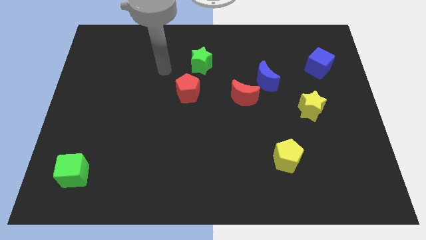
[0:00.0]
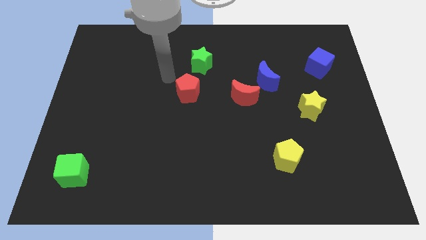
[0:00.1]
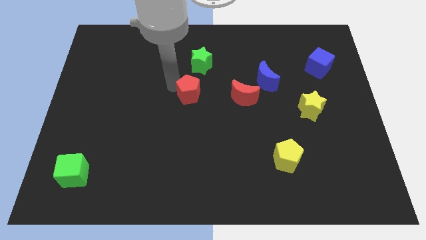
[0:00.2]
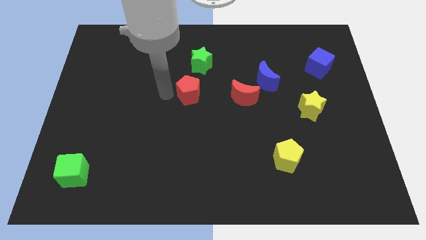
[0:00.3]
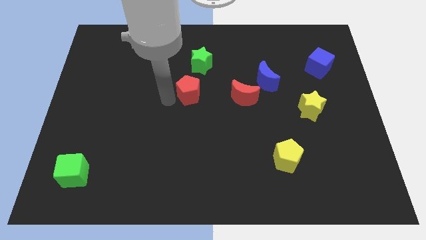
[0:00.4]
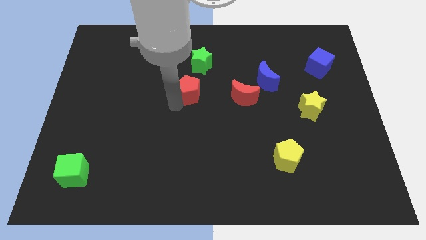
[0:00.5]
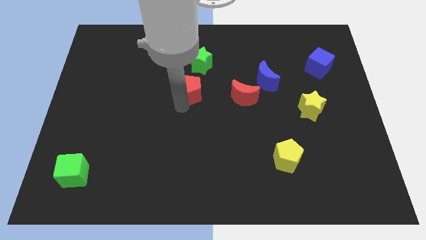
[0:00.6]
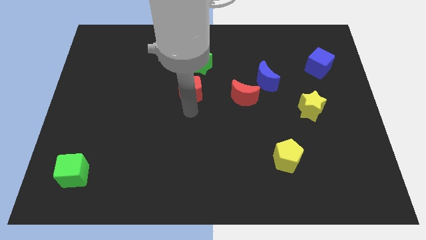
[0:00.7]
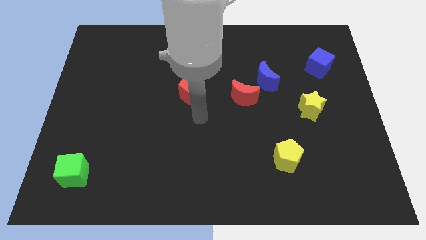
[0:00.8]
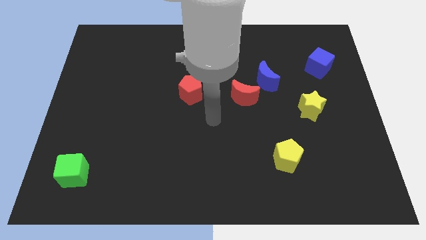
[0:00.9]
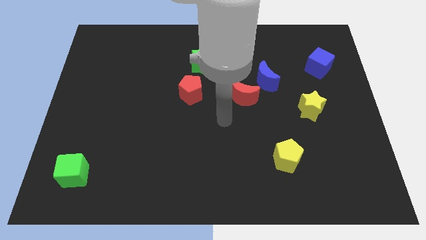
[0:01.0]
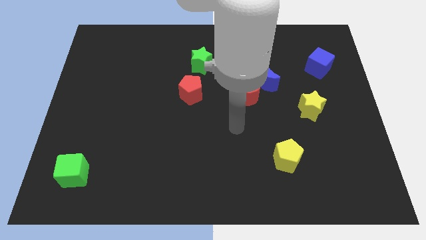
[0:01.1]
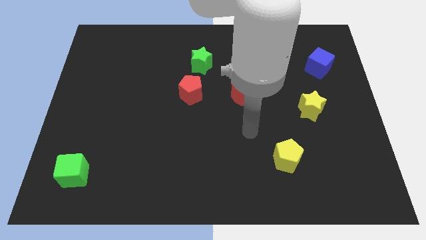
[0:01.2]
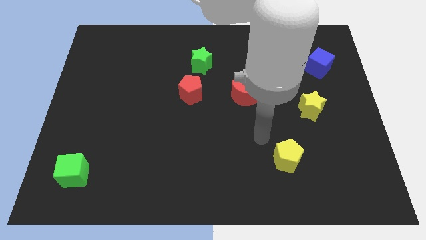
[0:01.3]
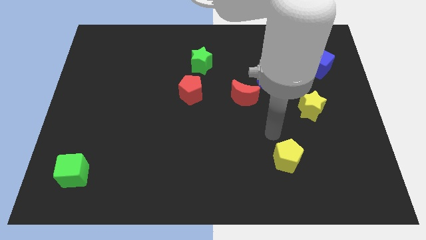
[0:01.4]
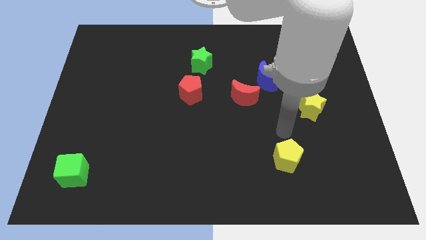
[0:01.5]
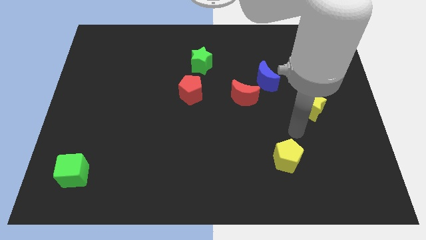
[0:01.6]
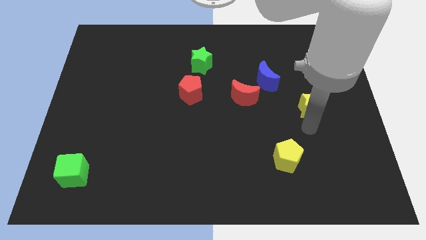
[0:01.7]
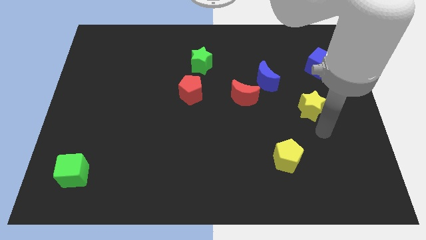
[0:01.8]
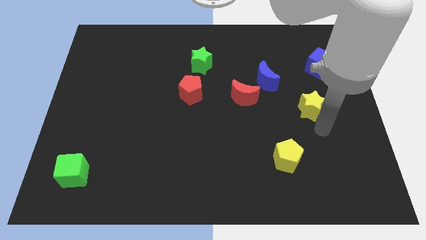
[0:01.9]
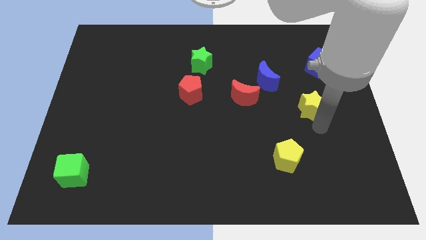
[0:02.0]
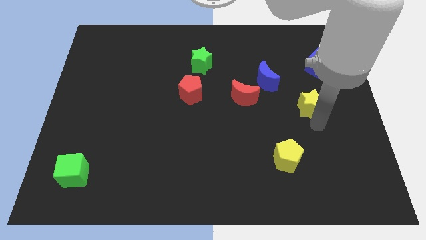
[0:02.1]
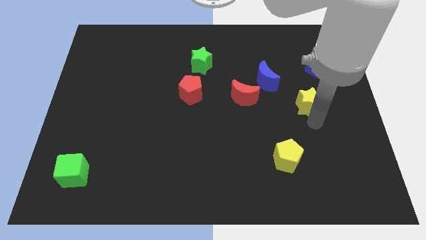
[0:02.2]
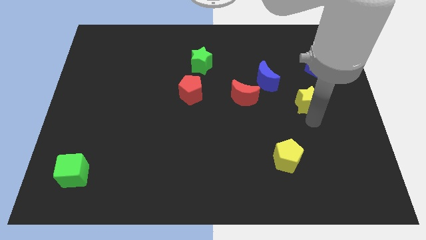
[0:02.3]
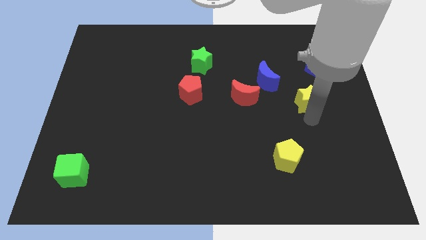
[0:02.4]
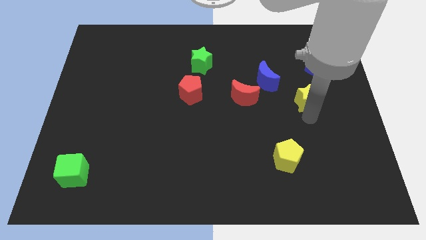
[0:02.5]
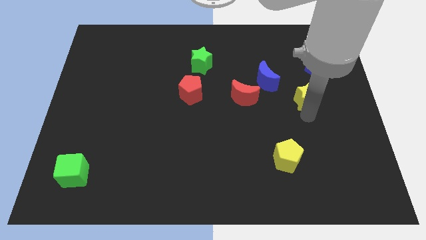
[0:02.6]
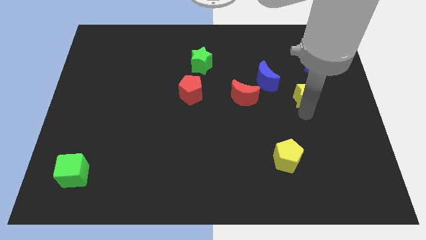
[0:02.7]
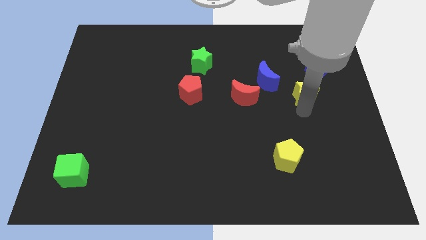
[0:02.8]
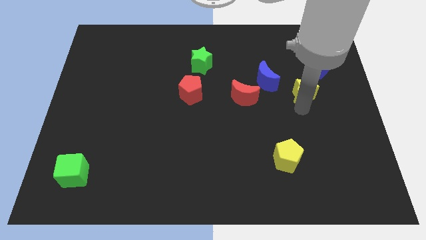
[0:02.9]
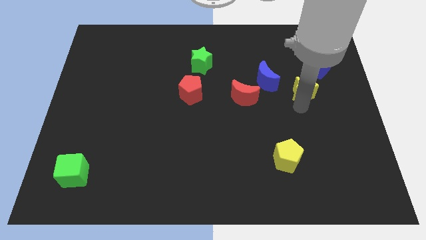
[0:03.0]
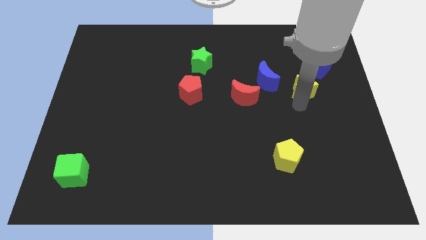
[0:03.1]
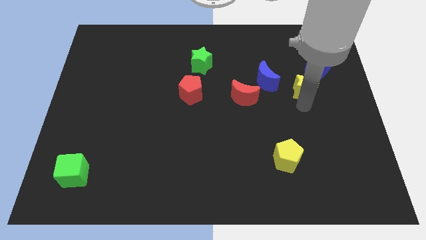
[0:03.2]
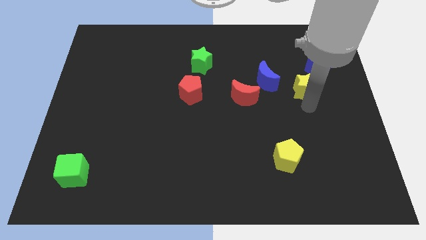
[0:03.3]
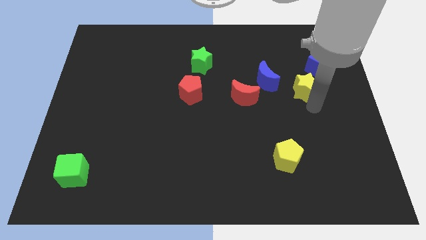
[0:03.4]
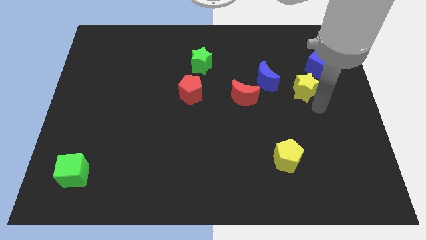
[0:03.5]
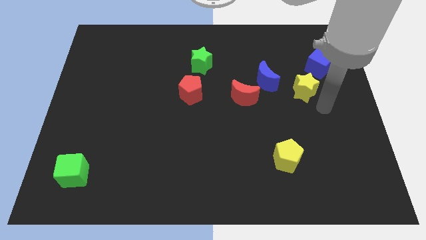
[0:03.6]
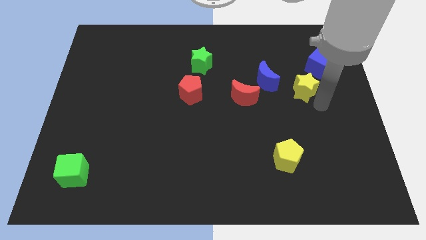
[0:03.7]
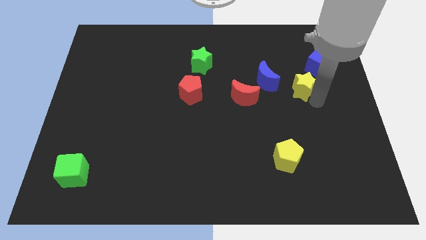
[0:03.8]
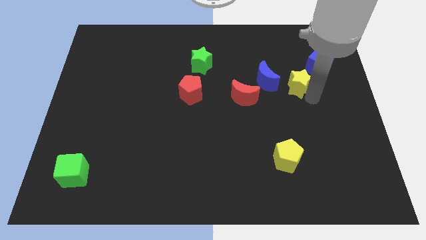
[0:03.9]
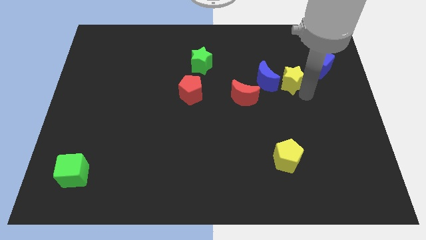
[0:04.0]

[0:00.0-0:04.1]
slide the yellow star a little bit up and to the left diagonally

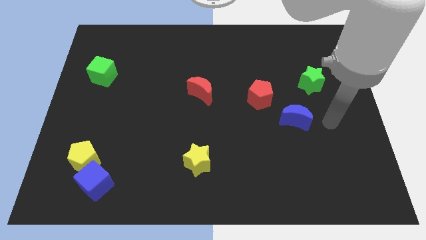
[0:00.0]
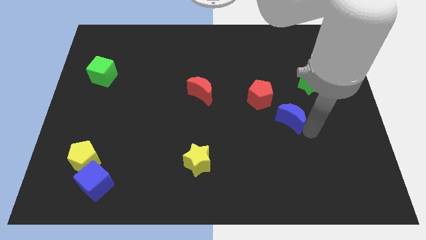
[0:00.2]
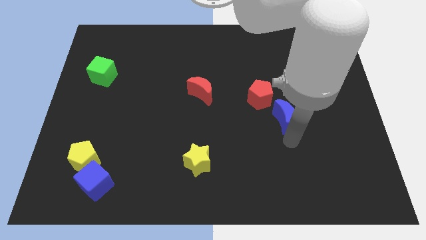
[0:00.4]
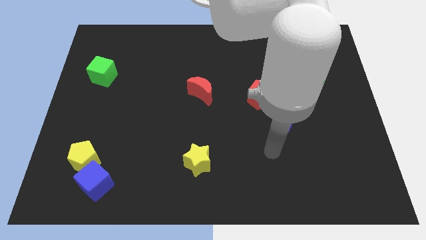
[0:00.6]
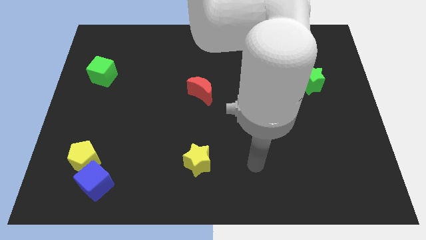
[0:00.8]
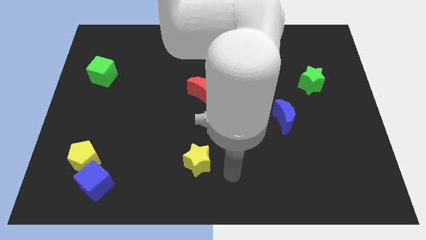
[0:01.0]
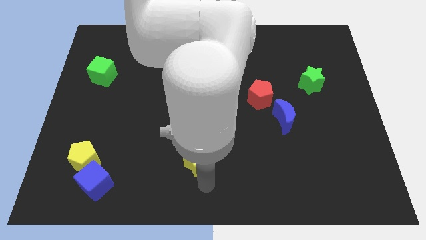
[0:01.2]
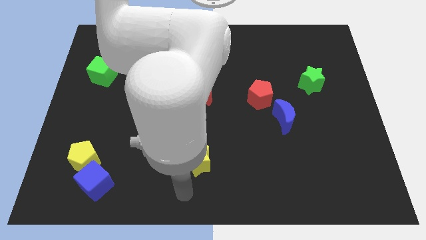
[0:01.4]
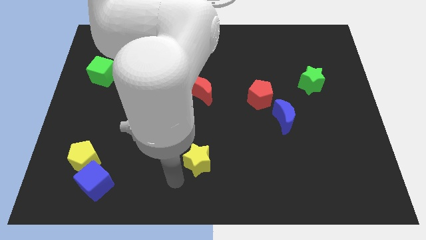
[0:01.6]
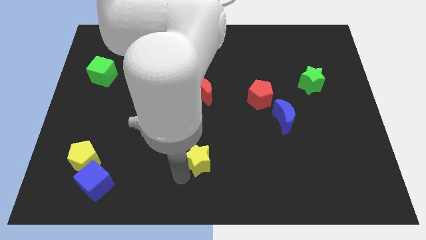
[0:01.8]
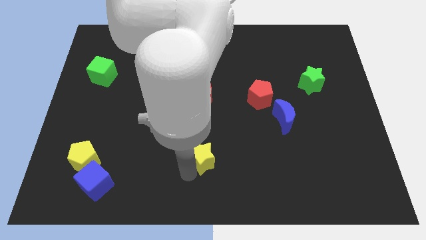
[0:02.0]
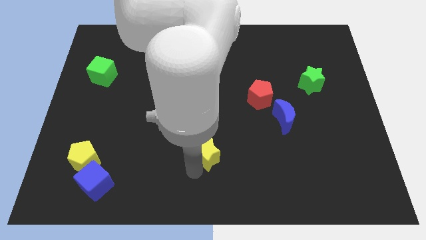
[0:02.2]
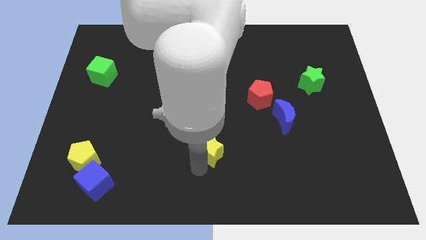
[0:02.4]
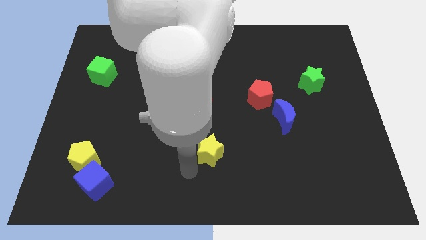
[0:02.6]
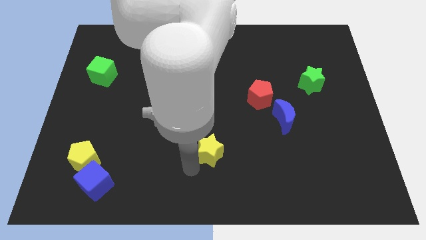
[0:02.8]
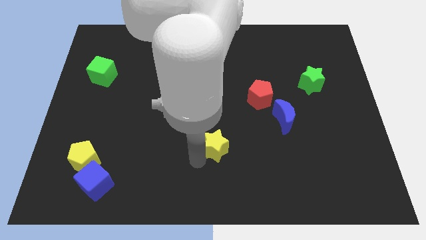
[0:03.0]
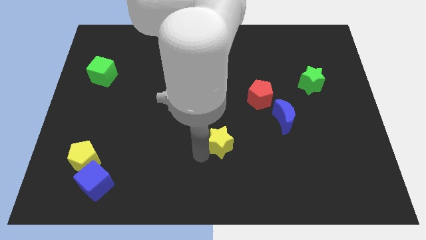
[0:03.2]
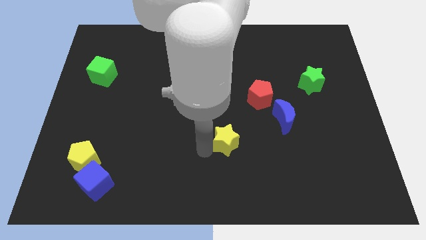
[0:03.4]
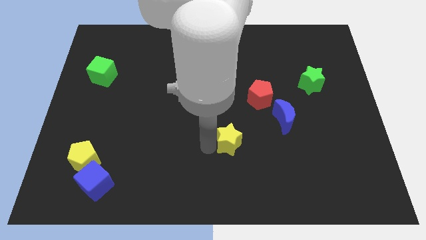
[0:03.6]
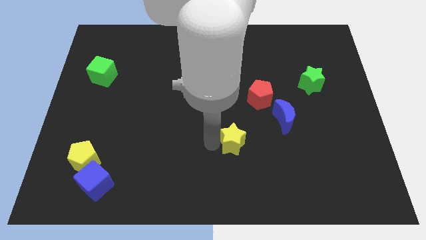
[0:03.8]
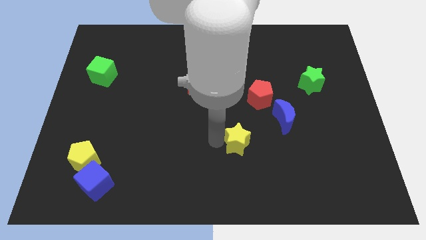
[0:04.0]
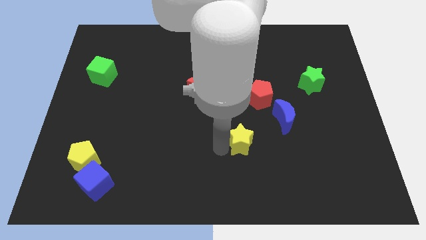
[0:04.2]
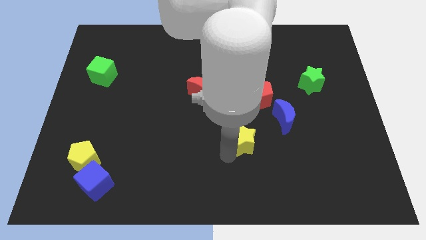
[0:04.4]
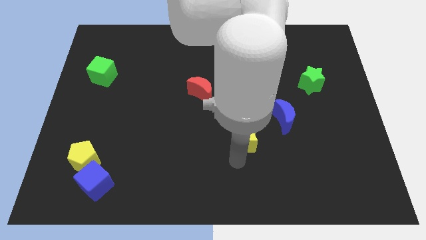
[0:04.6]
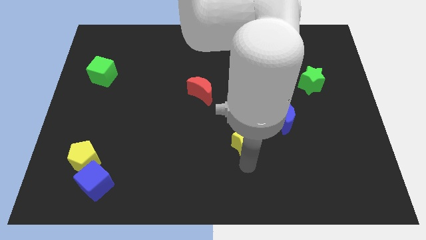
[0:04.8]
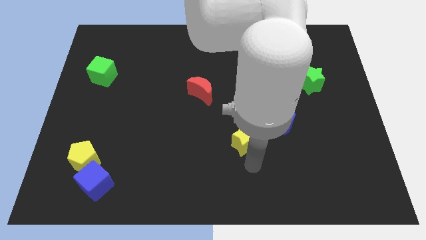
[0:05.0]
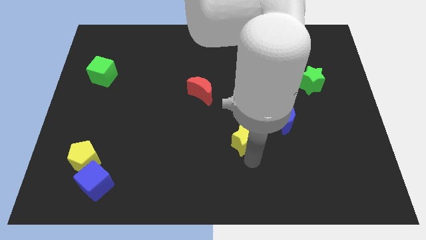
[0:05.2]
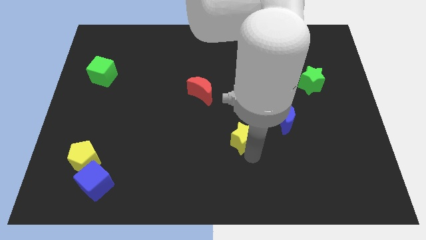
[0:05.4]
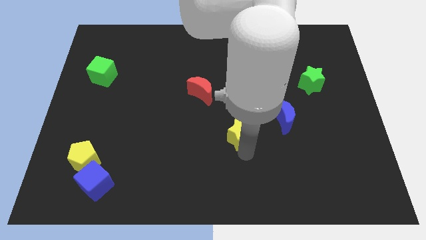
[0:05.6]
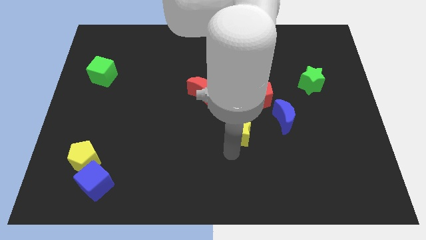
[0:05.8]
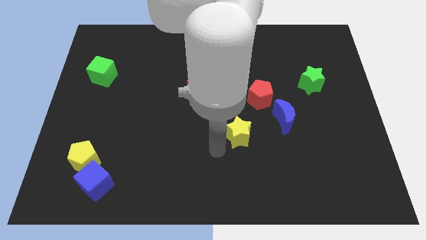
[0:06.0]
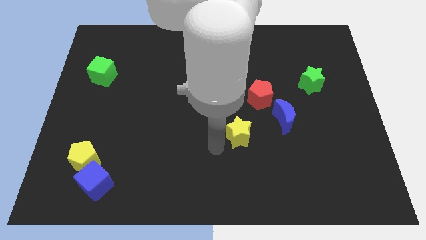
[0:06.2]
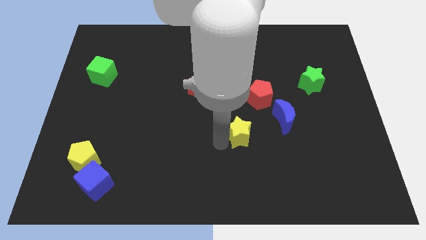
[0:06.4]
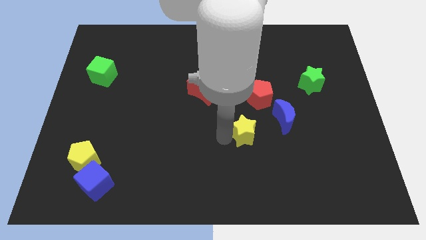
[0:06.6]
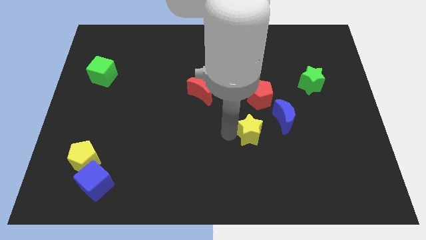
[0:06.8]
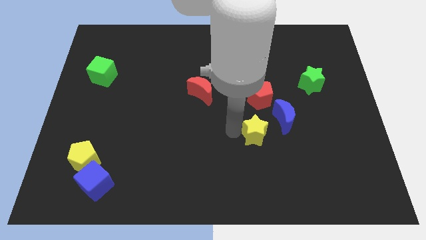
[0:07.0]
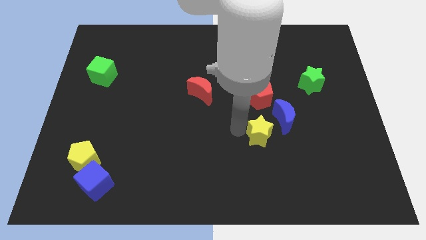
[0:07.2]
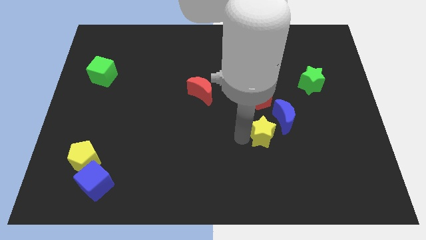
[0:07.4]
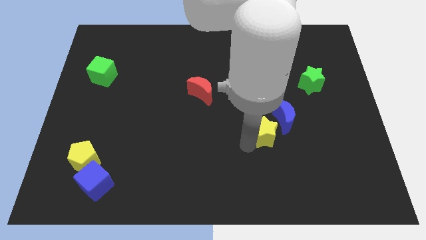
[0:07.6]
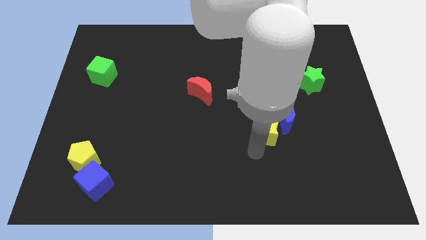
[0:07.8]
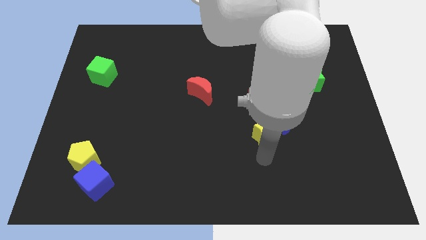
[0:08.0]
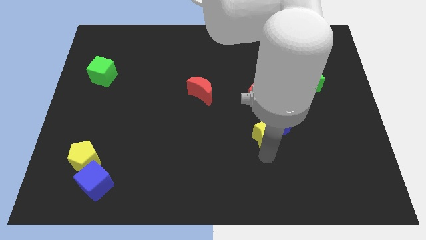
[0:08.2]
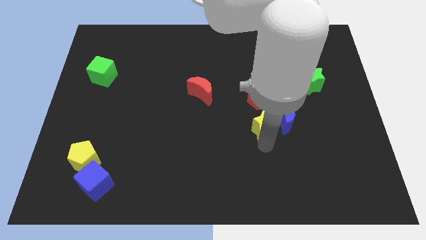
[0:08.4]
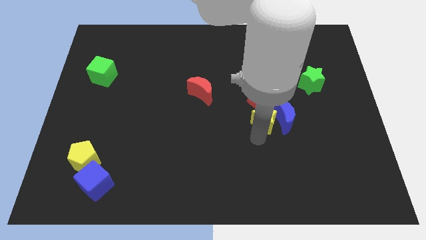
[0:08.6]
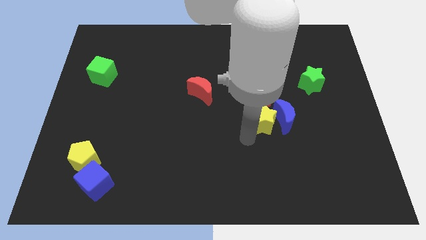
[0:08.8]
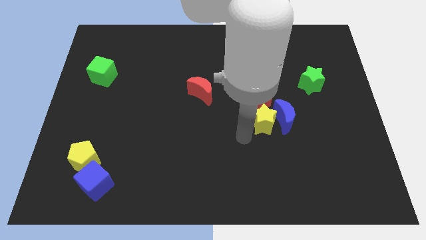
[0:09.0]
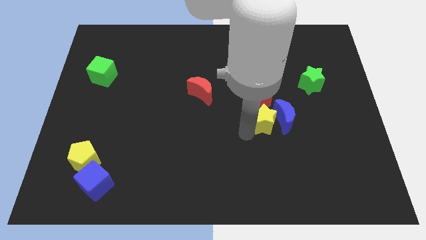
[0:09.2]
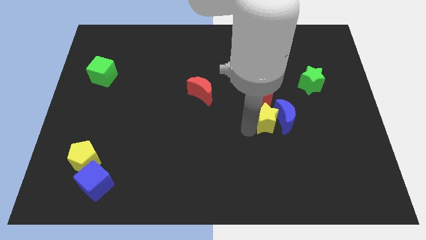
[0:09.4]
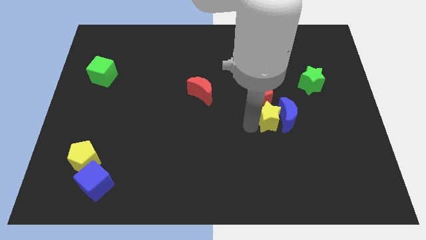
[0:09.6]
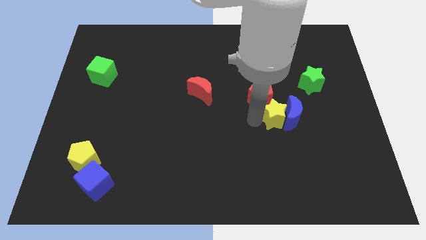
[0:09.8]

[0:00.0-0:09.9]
slide the yellow star diagonally up and right
